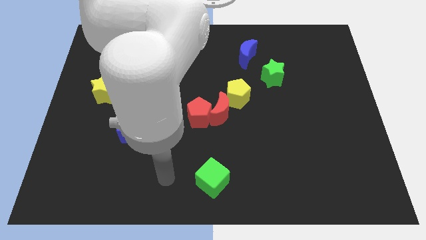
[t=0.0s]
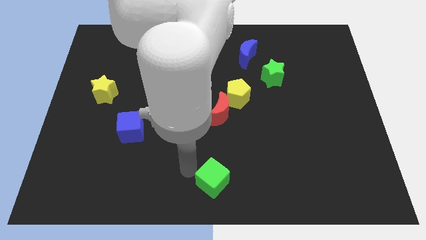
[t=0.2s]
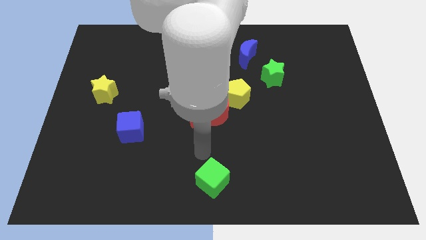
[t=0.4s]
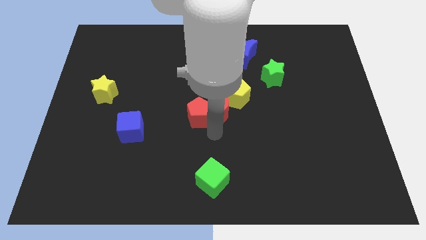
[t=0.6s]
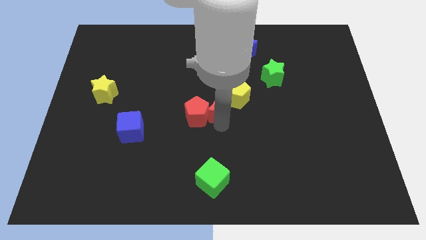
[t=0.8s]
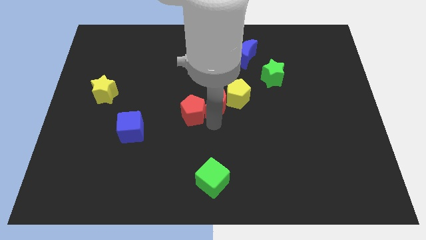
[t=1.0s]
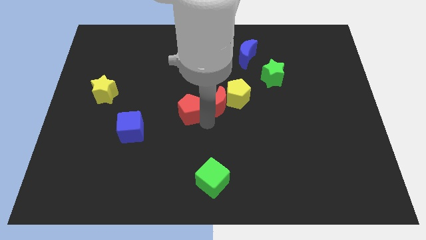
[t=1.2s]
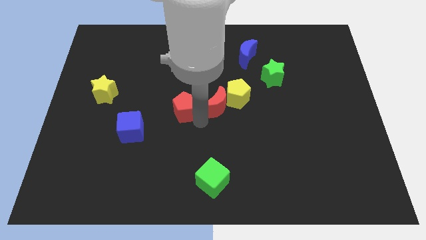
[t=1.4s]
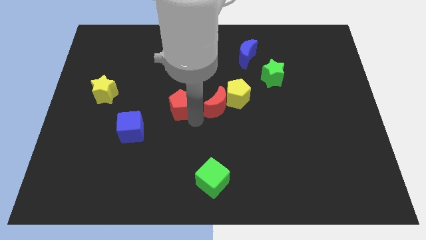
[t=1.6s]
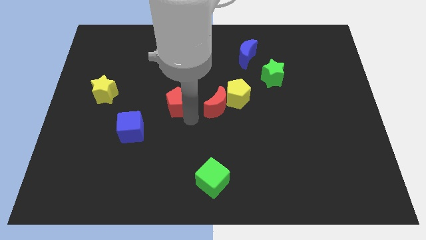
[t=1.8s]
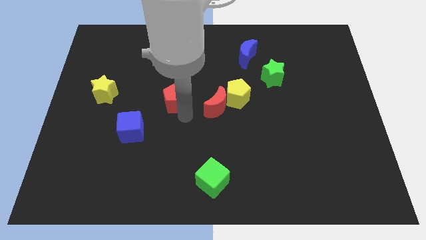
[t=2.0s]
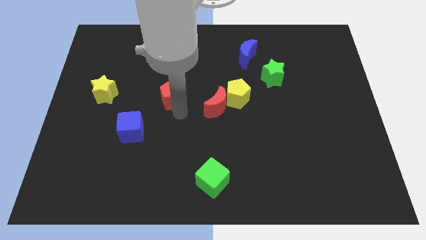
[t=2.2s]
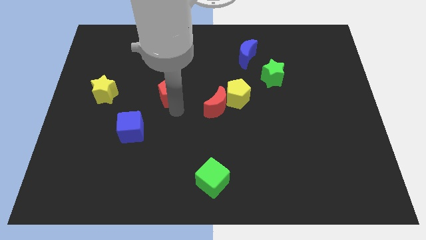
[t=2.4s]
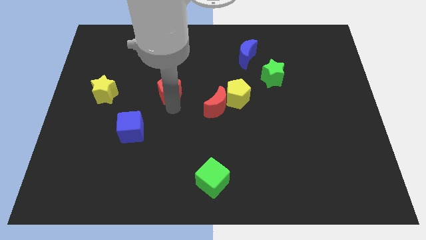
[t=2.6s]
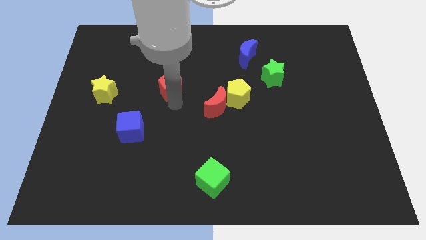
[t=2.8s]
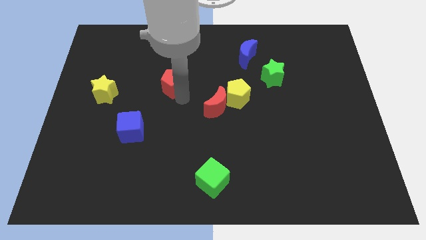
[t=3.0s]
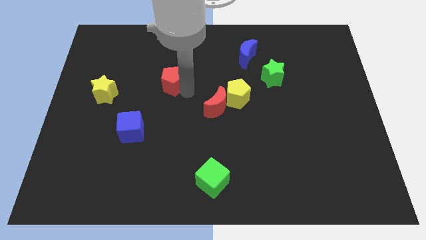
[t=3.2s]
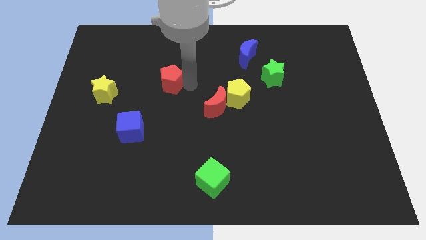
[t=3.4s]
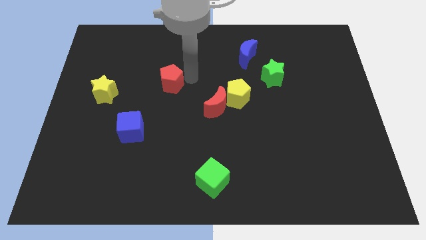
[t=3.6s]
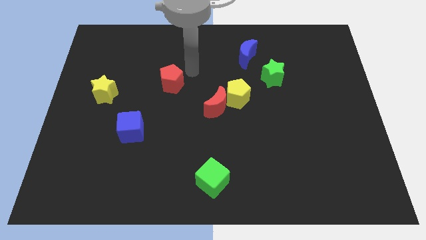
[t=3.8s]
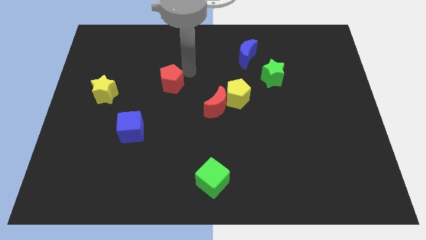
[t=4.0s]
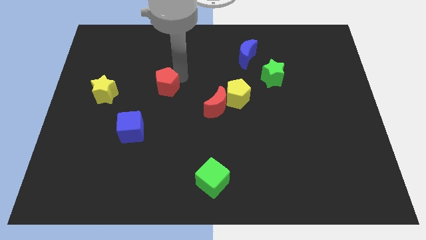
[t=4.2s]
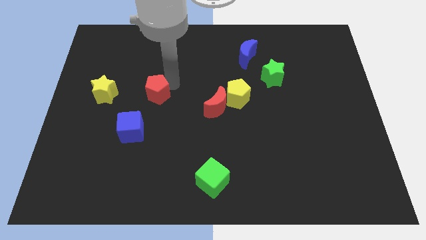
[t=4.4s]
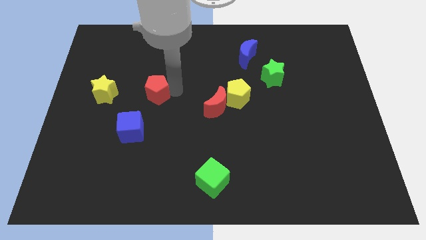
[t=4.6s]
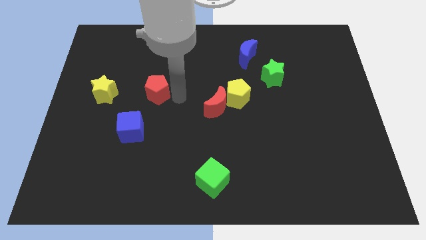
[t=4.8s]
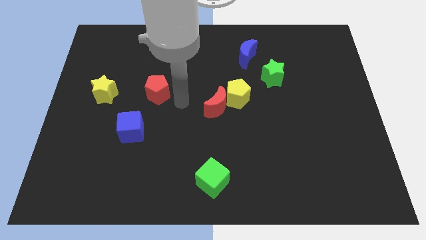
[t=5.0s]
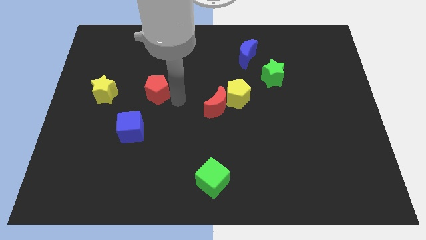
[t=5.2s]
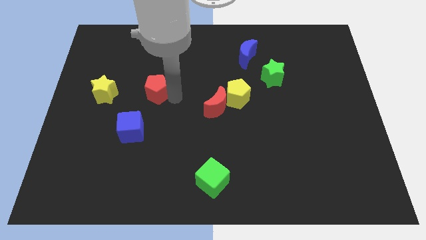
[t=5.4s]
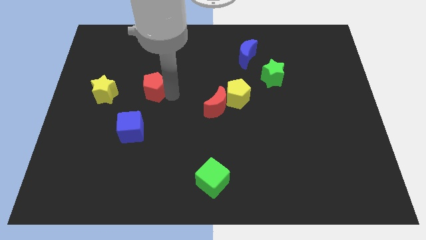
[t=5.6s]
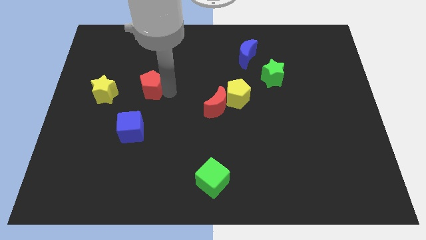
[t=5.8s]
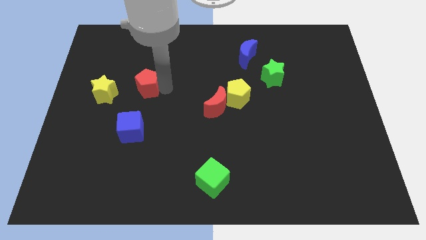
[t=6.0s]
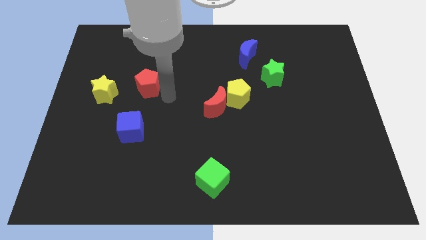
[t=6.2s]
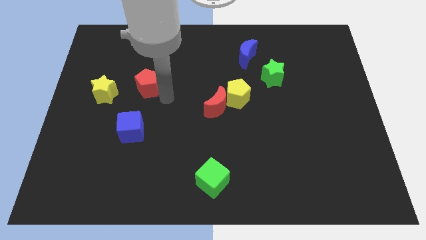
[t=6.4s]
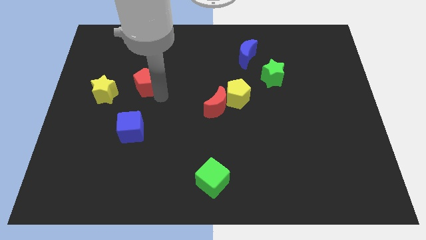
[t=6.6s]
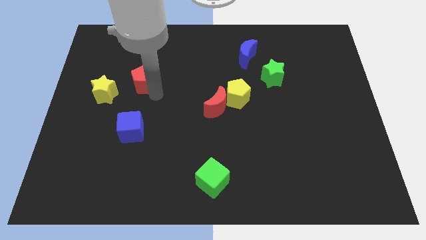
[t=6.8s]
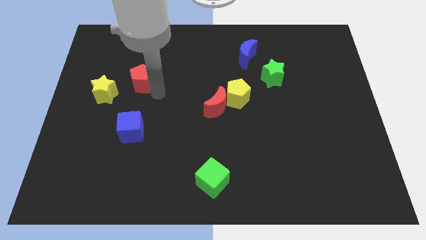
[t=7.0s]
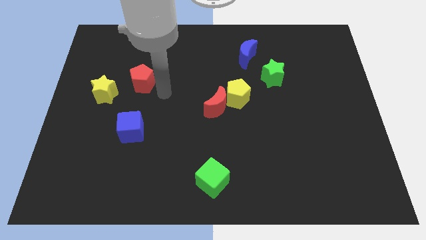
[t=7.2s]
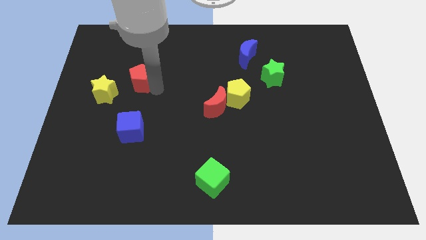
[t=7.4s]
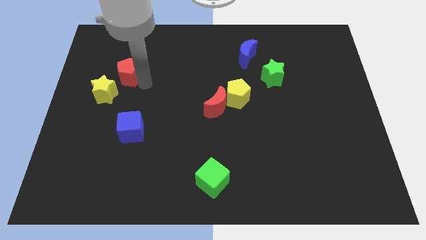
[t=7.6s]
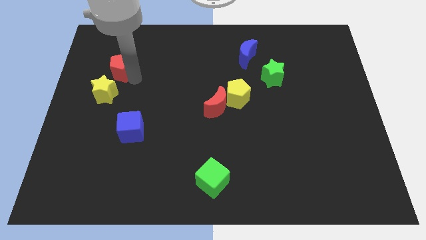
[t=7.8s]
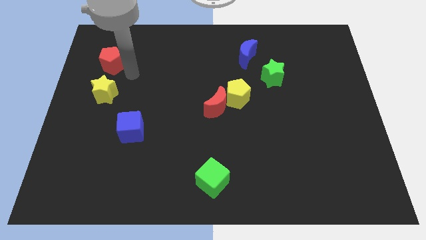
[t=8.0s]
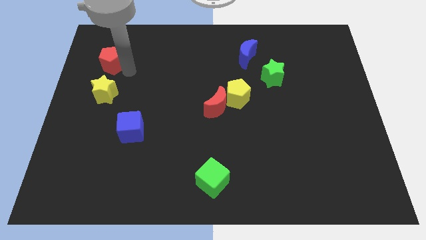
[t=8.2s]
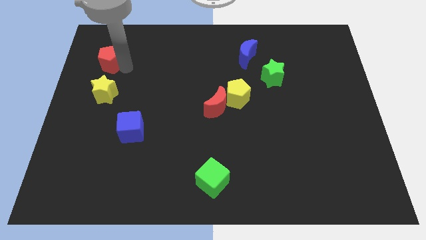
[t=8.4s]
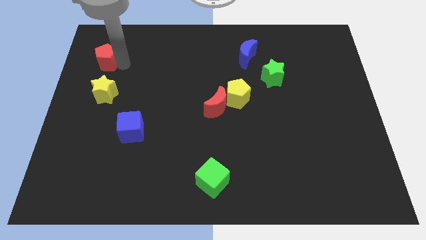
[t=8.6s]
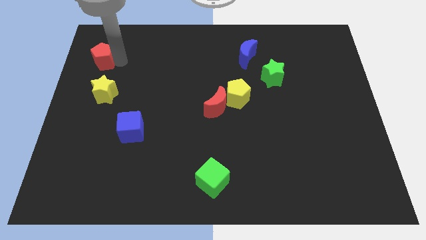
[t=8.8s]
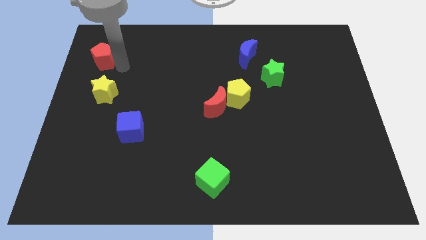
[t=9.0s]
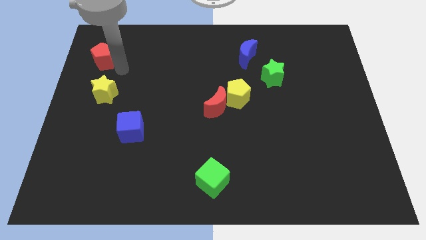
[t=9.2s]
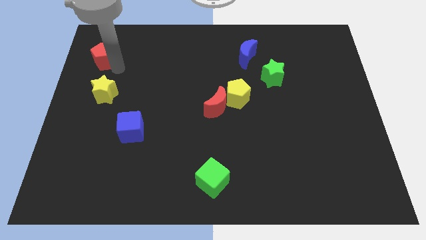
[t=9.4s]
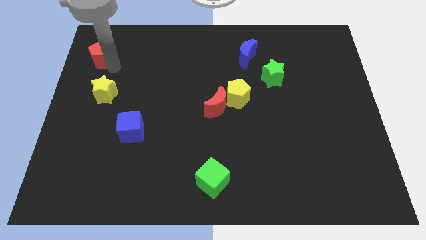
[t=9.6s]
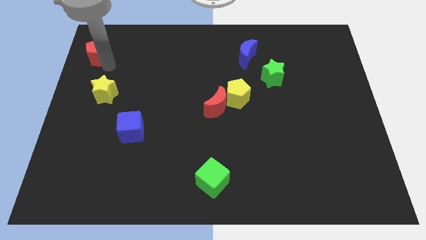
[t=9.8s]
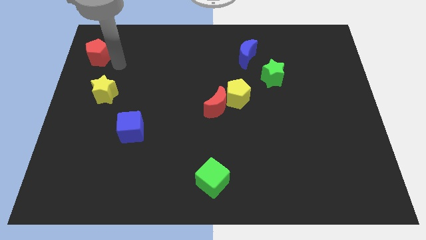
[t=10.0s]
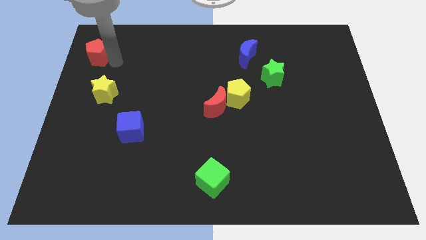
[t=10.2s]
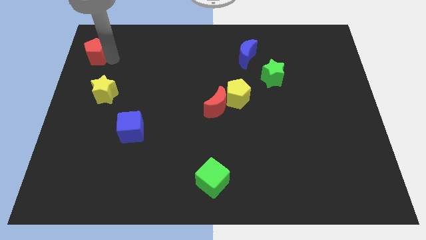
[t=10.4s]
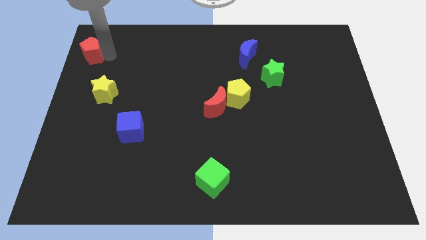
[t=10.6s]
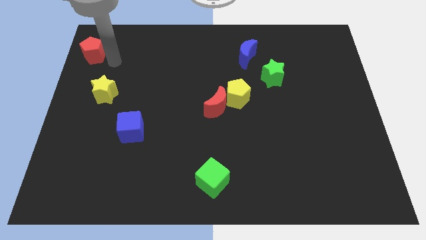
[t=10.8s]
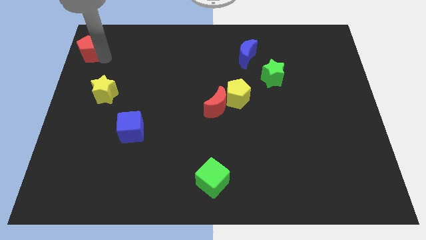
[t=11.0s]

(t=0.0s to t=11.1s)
push the red pentagon to the top left
